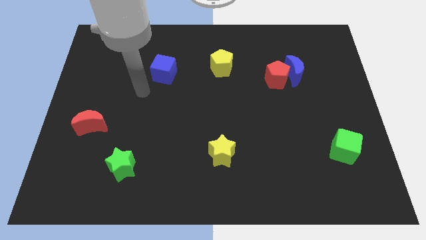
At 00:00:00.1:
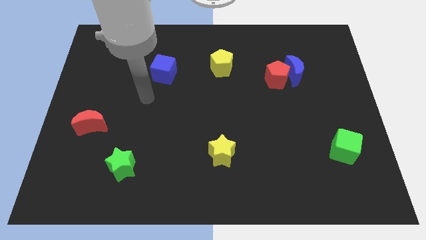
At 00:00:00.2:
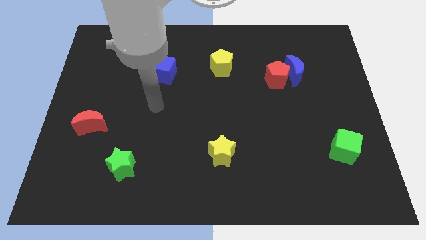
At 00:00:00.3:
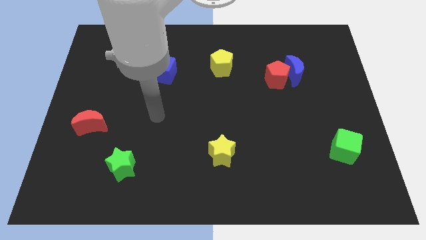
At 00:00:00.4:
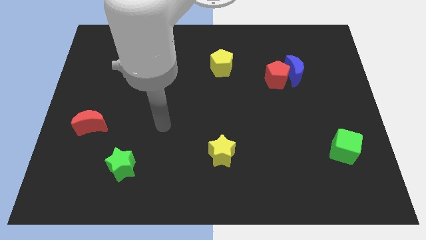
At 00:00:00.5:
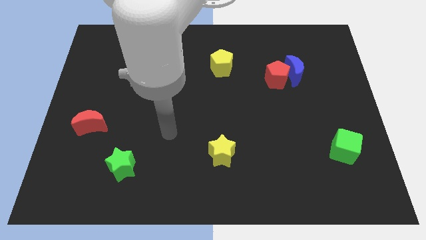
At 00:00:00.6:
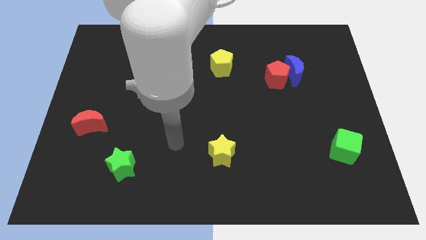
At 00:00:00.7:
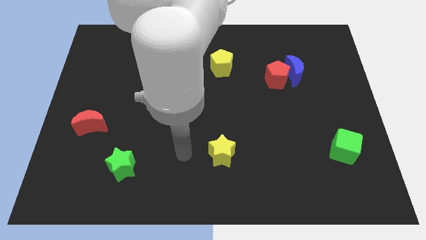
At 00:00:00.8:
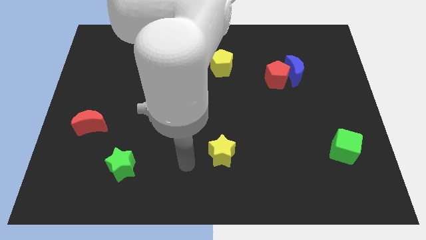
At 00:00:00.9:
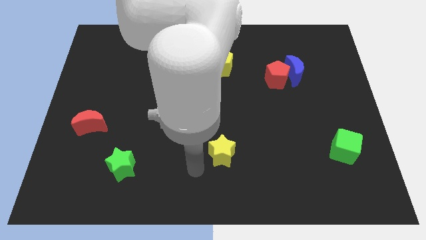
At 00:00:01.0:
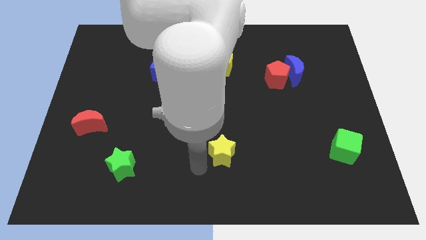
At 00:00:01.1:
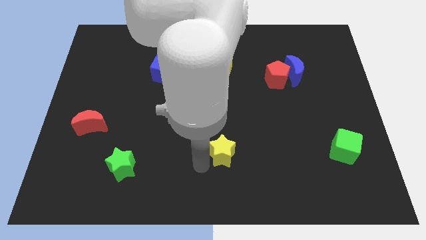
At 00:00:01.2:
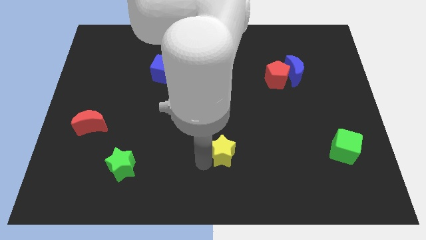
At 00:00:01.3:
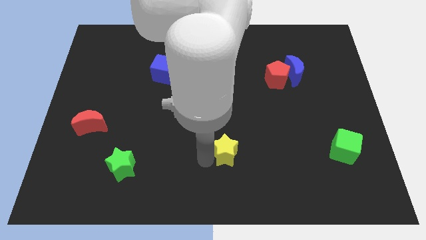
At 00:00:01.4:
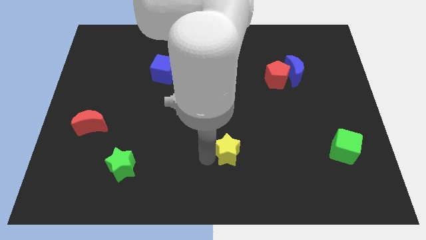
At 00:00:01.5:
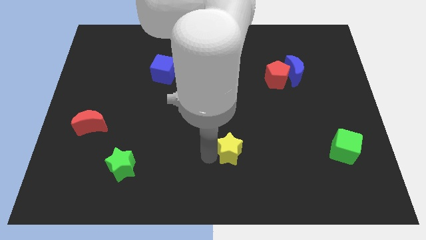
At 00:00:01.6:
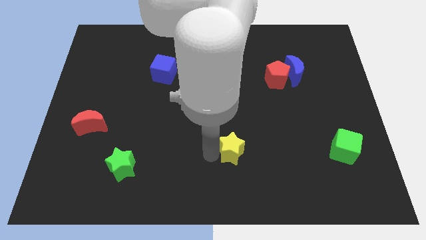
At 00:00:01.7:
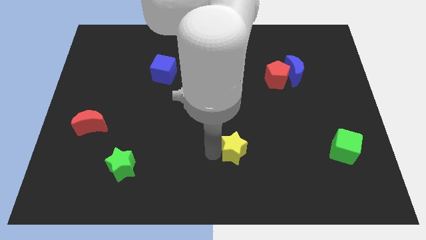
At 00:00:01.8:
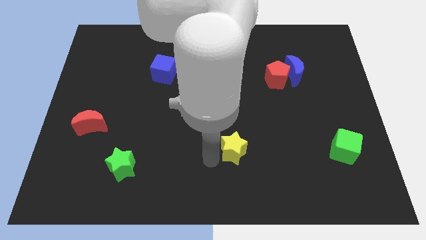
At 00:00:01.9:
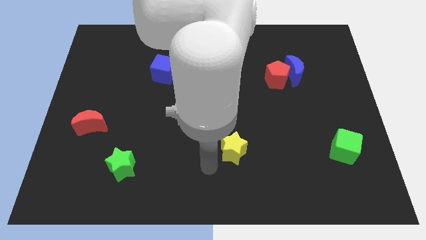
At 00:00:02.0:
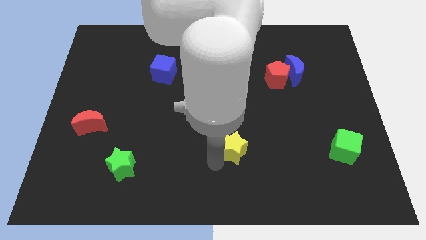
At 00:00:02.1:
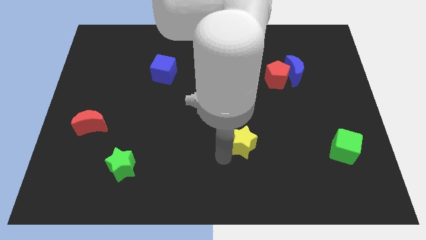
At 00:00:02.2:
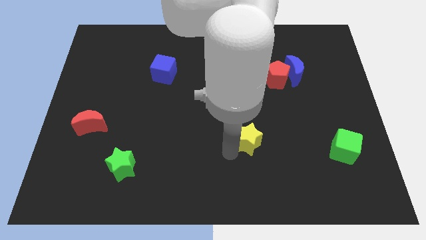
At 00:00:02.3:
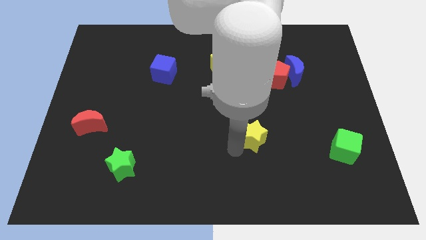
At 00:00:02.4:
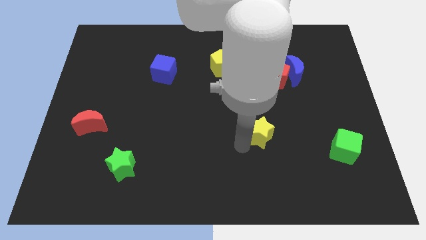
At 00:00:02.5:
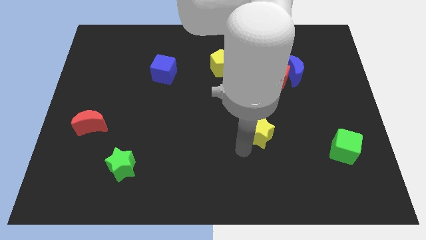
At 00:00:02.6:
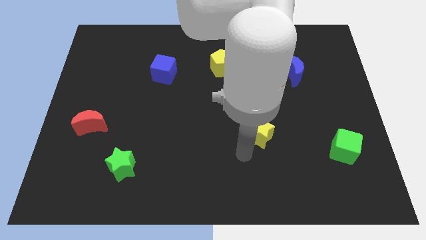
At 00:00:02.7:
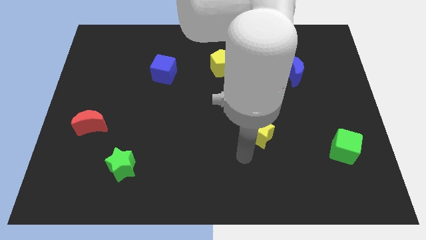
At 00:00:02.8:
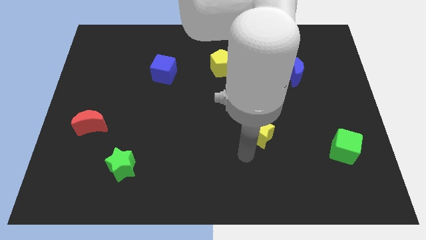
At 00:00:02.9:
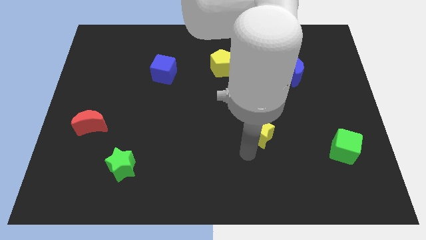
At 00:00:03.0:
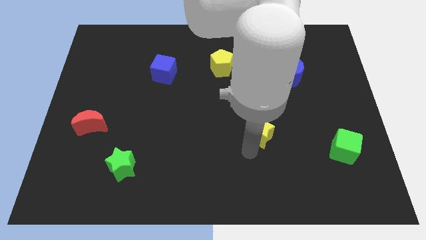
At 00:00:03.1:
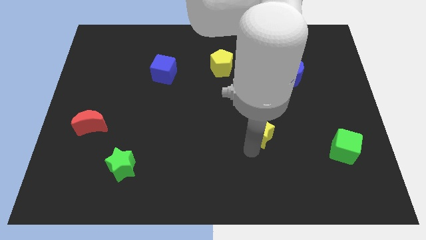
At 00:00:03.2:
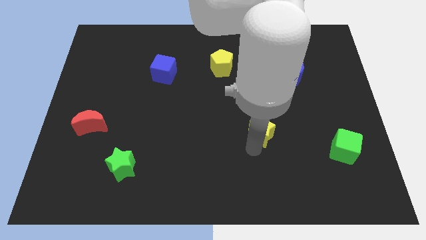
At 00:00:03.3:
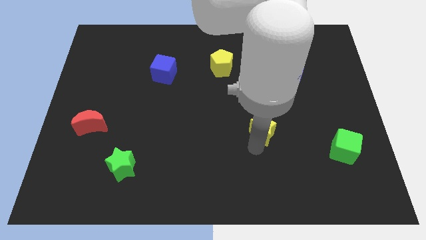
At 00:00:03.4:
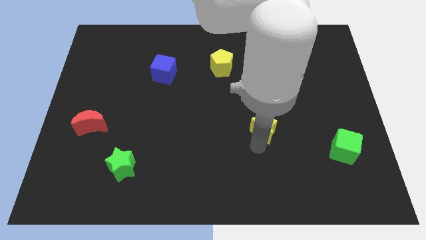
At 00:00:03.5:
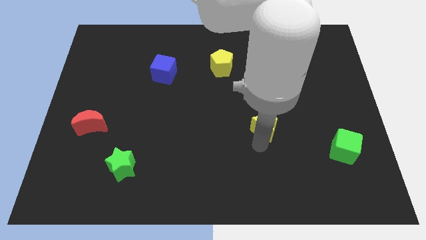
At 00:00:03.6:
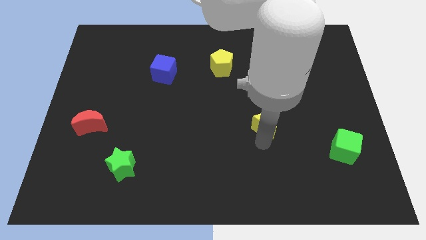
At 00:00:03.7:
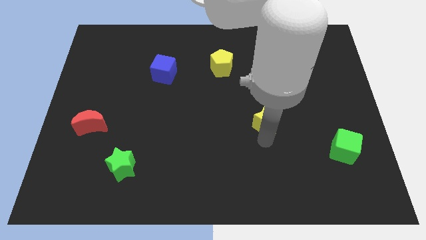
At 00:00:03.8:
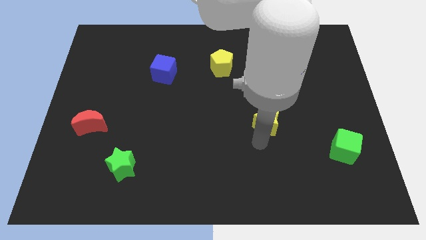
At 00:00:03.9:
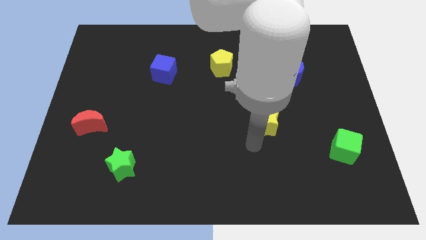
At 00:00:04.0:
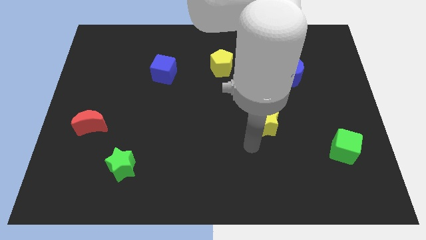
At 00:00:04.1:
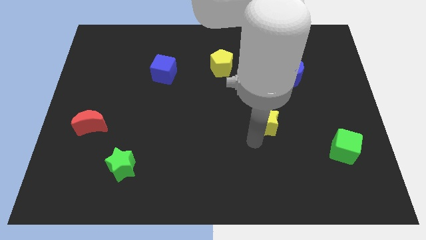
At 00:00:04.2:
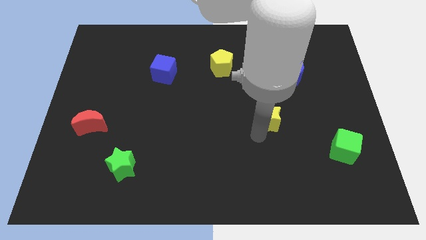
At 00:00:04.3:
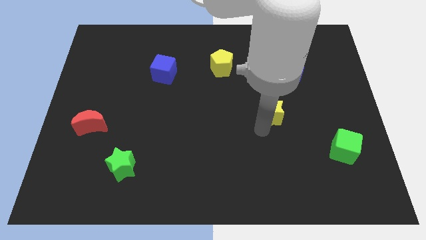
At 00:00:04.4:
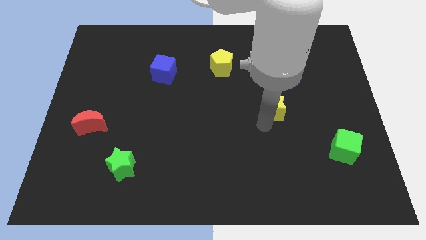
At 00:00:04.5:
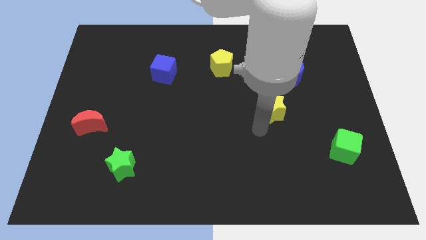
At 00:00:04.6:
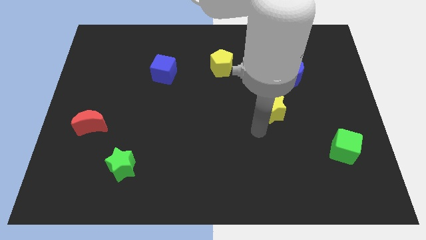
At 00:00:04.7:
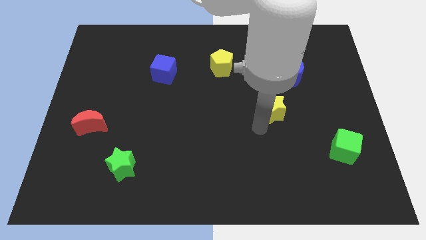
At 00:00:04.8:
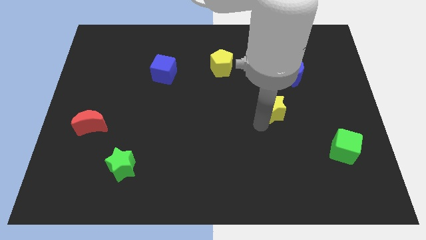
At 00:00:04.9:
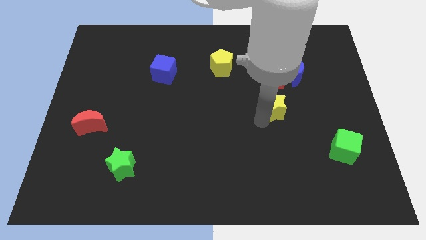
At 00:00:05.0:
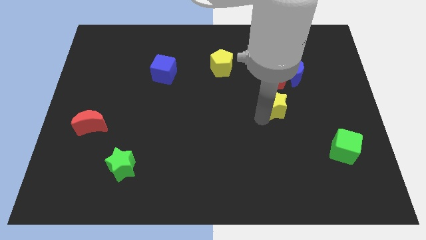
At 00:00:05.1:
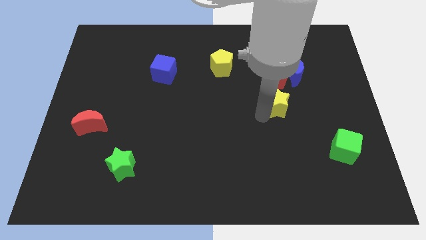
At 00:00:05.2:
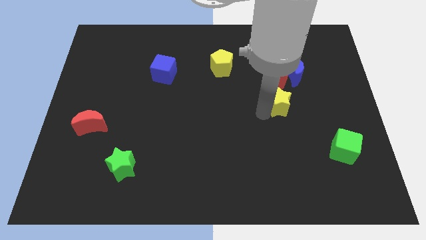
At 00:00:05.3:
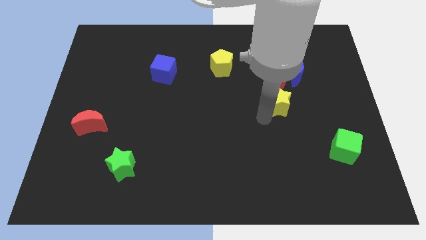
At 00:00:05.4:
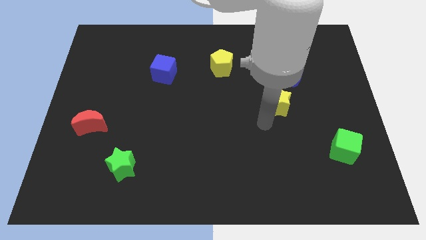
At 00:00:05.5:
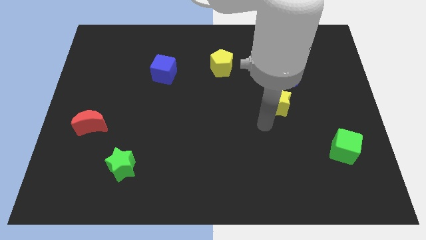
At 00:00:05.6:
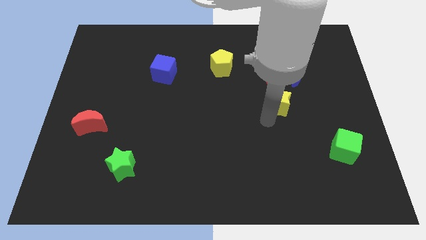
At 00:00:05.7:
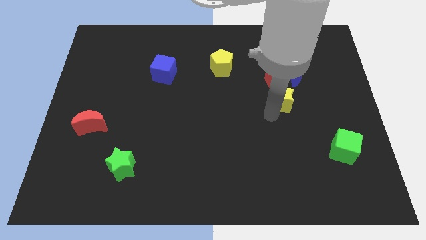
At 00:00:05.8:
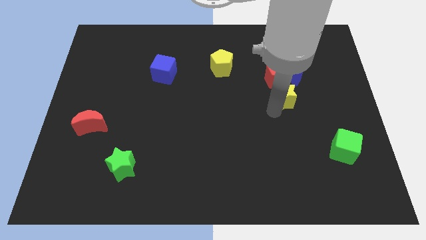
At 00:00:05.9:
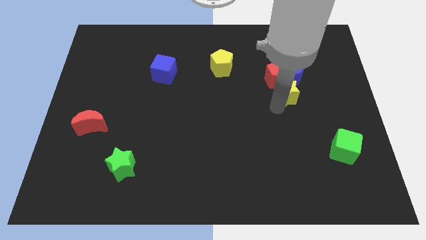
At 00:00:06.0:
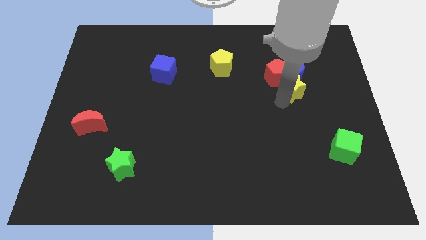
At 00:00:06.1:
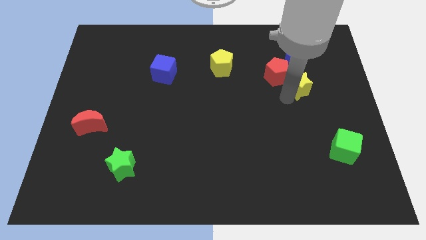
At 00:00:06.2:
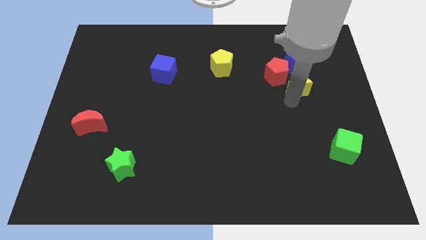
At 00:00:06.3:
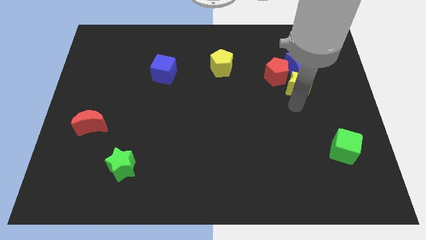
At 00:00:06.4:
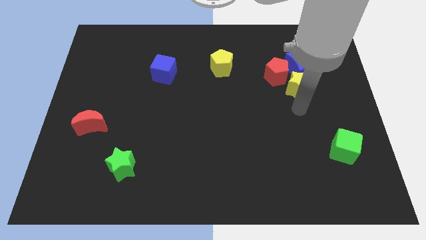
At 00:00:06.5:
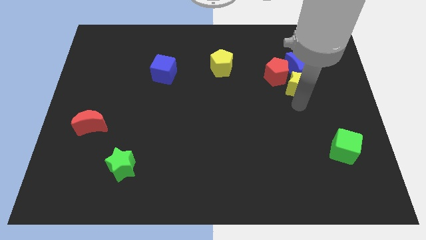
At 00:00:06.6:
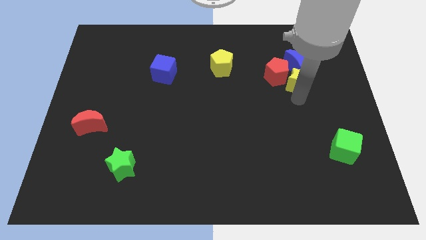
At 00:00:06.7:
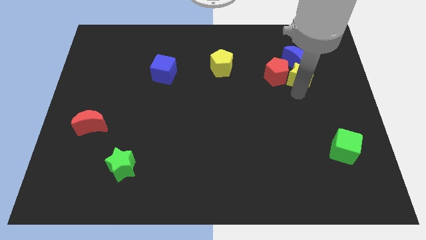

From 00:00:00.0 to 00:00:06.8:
put the yellow star to the blue moon
